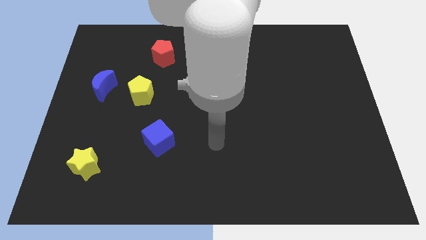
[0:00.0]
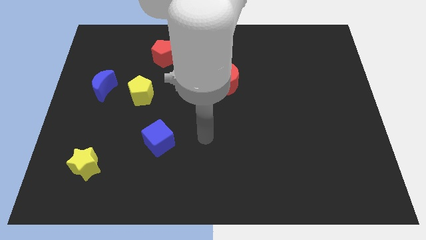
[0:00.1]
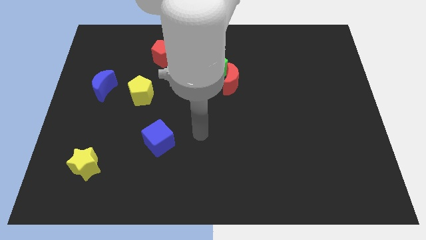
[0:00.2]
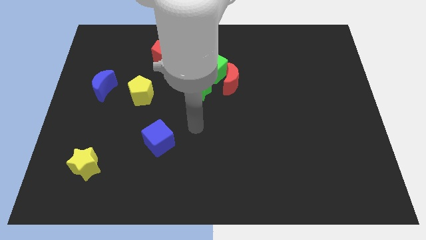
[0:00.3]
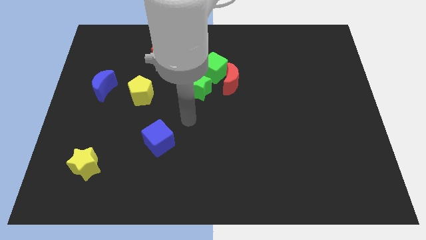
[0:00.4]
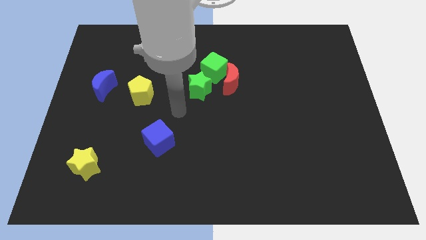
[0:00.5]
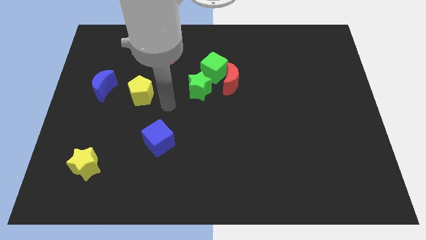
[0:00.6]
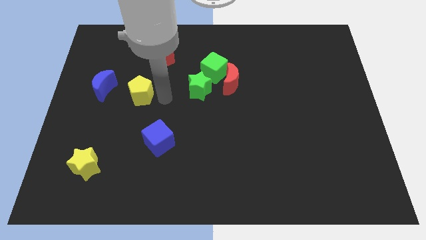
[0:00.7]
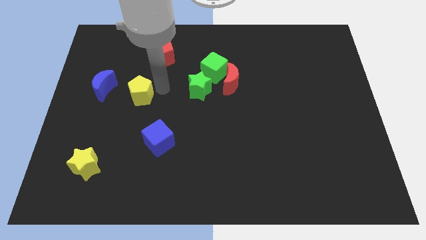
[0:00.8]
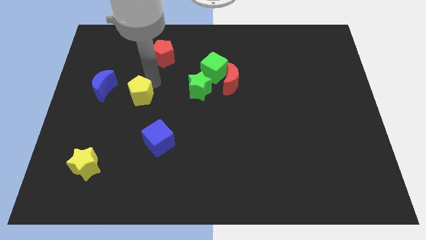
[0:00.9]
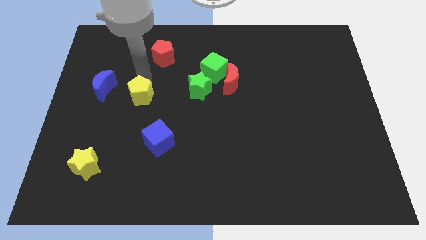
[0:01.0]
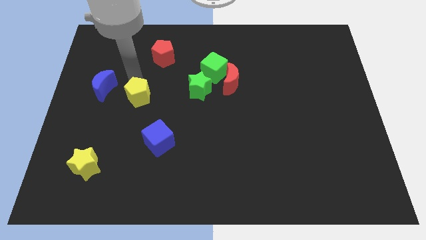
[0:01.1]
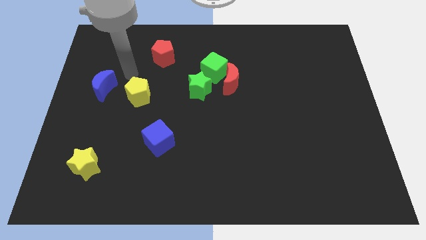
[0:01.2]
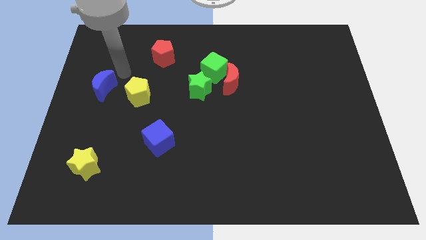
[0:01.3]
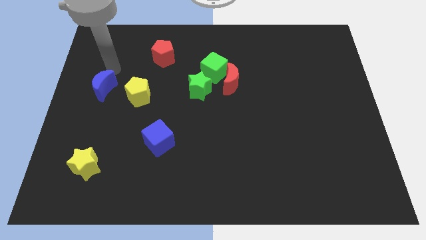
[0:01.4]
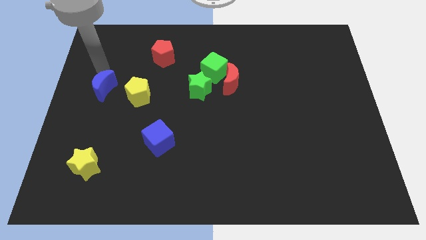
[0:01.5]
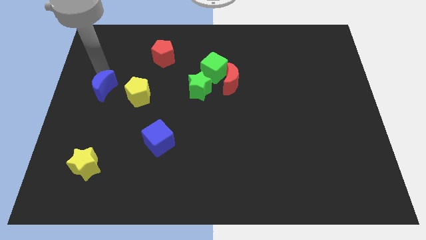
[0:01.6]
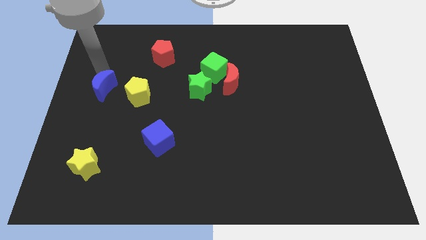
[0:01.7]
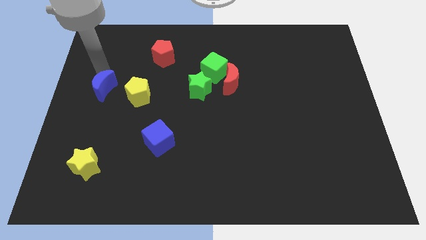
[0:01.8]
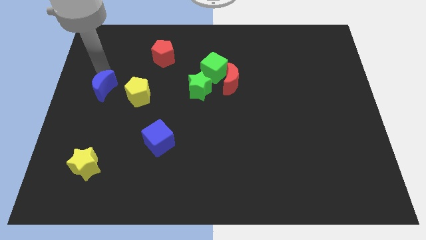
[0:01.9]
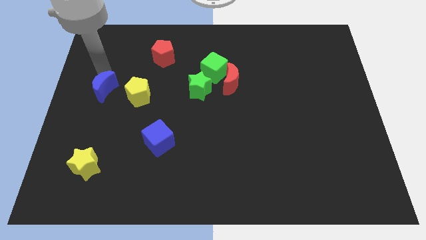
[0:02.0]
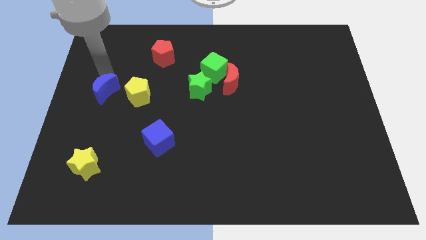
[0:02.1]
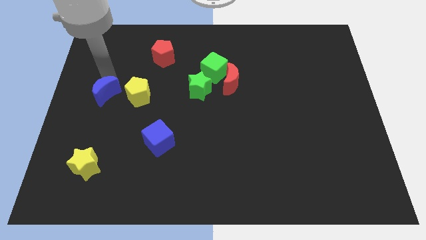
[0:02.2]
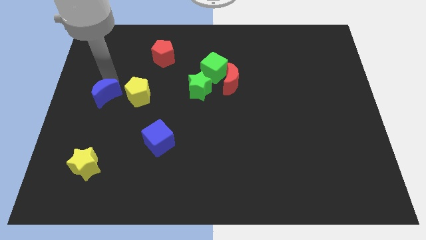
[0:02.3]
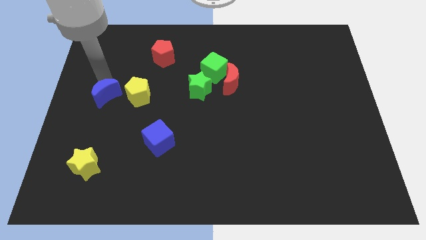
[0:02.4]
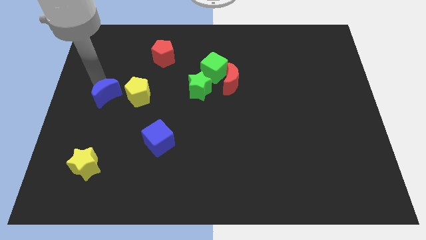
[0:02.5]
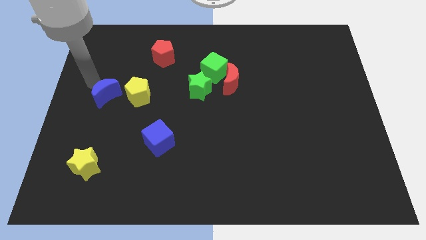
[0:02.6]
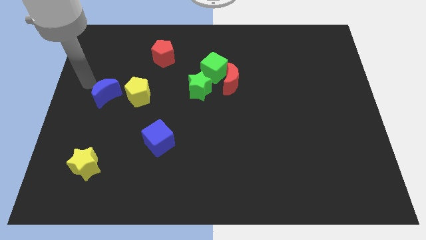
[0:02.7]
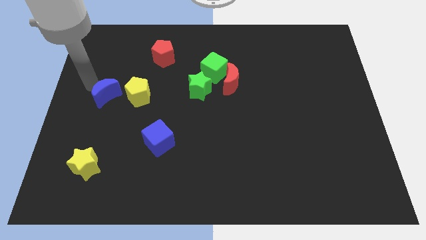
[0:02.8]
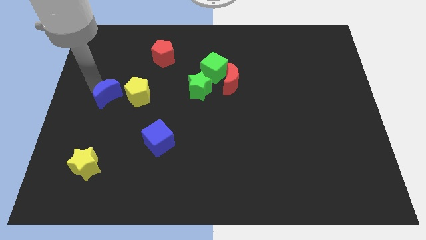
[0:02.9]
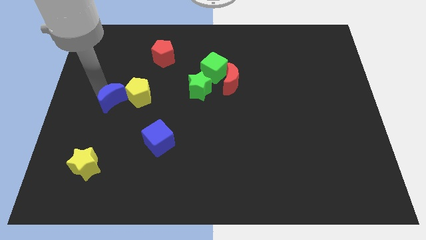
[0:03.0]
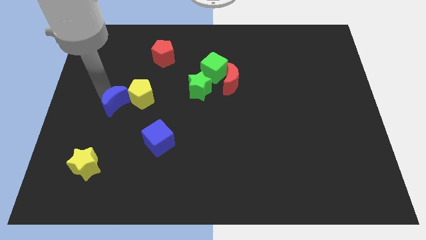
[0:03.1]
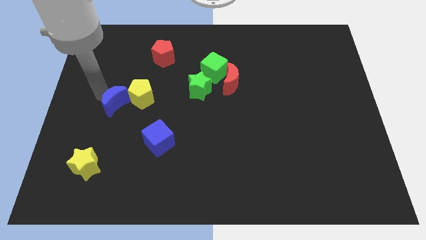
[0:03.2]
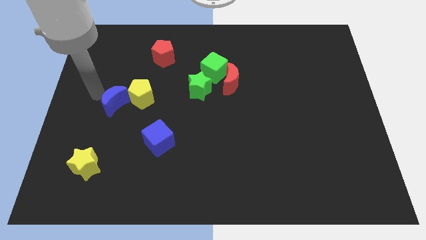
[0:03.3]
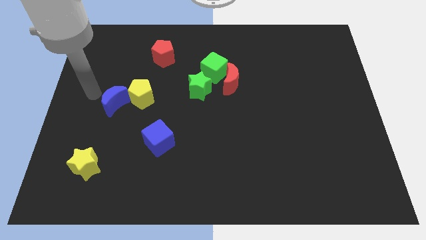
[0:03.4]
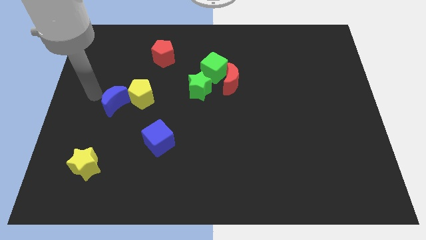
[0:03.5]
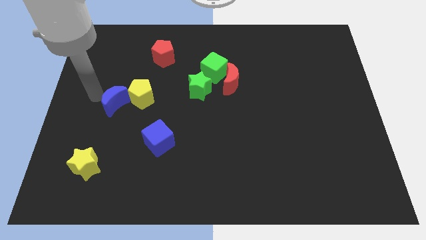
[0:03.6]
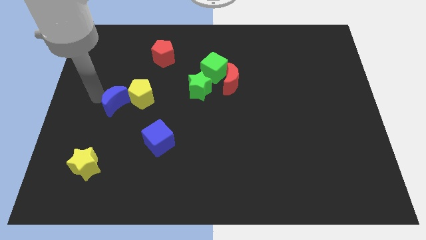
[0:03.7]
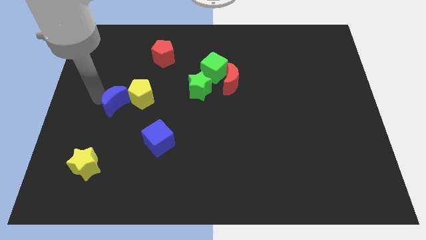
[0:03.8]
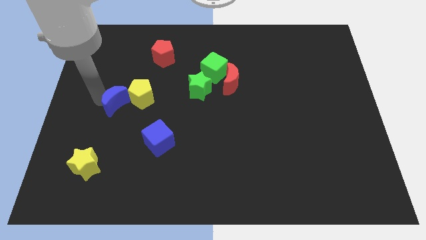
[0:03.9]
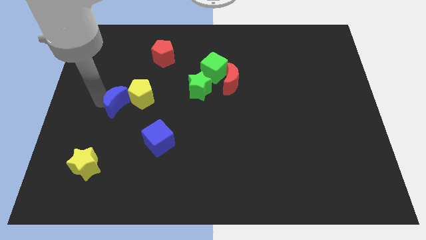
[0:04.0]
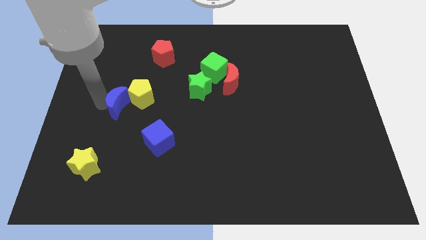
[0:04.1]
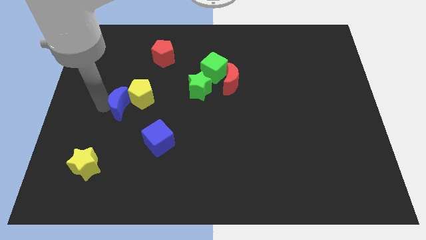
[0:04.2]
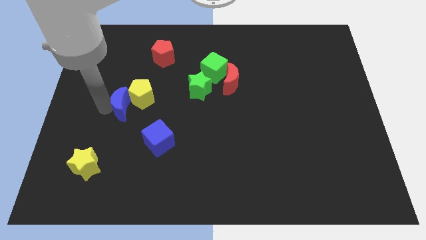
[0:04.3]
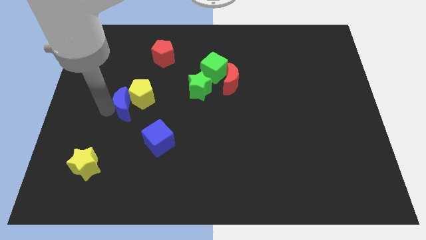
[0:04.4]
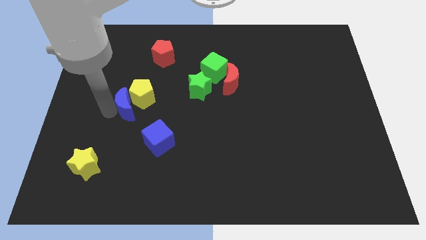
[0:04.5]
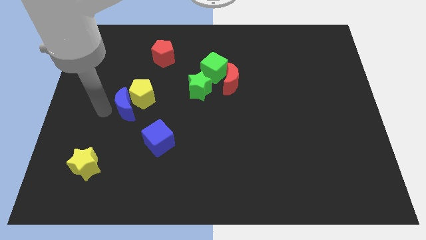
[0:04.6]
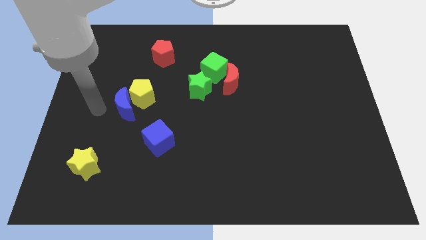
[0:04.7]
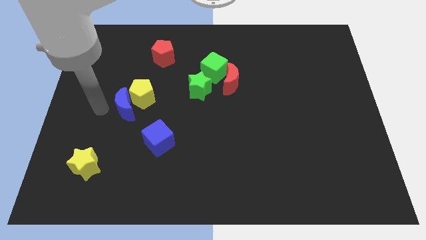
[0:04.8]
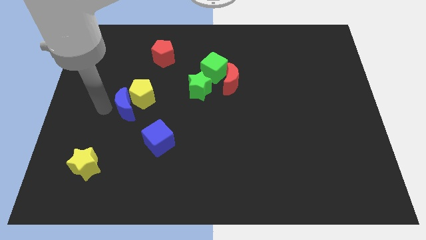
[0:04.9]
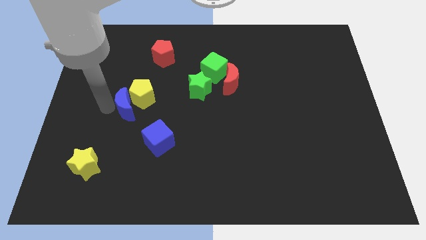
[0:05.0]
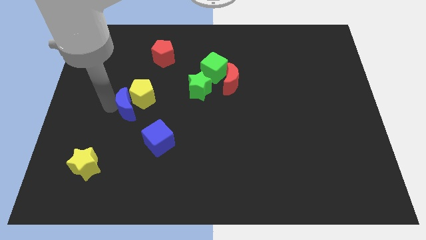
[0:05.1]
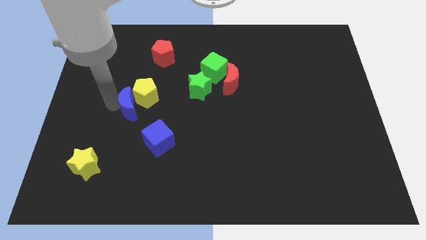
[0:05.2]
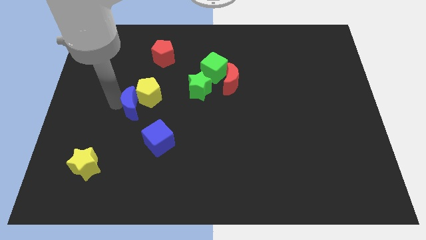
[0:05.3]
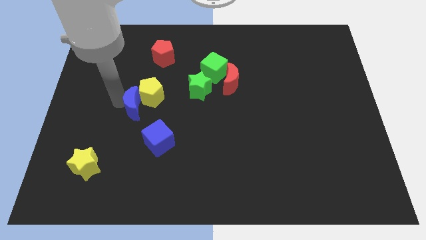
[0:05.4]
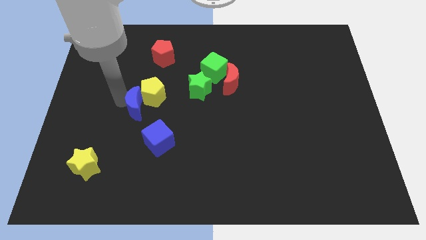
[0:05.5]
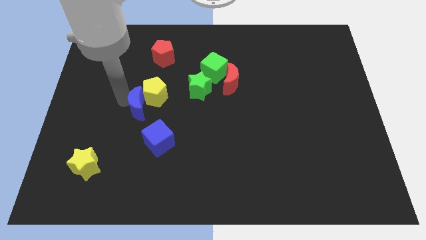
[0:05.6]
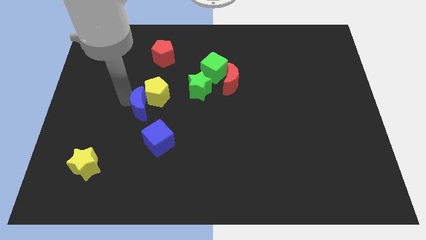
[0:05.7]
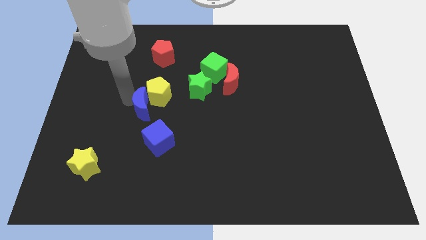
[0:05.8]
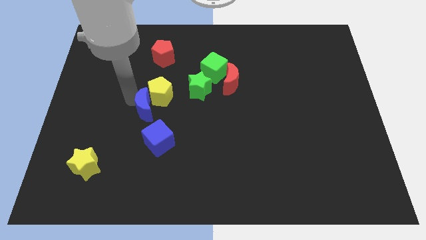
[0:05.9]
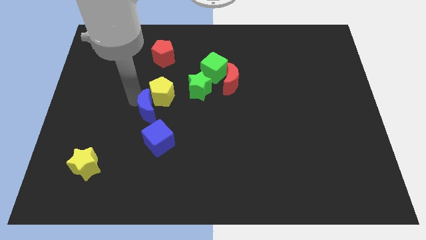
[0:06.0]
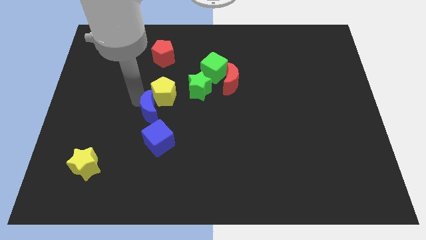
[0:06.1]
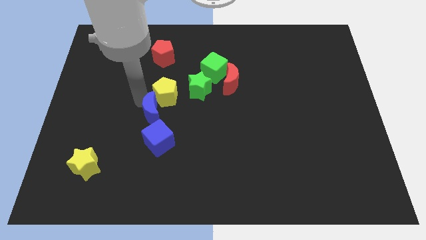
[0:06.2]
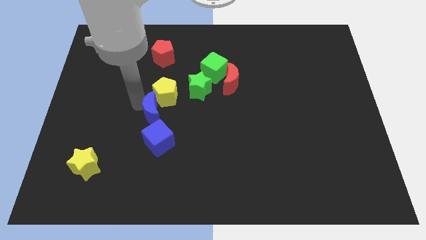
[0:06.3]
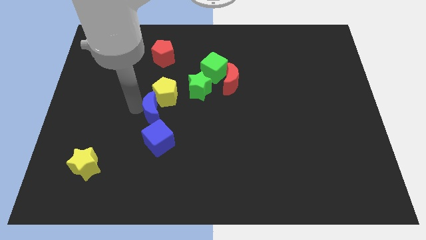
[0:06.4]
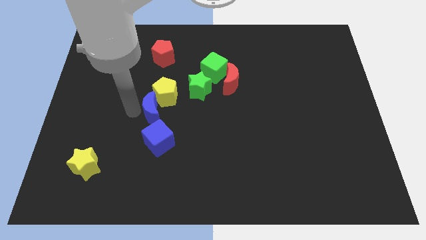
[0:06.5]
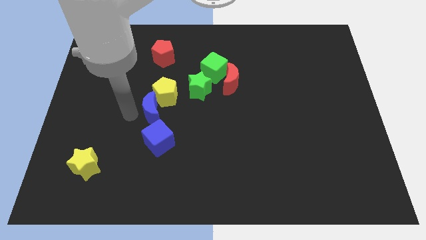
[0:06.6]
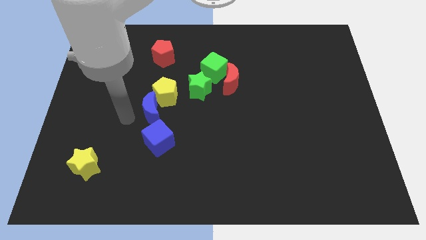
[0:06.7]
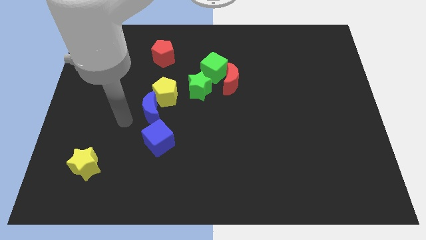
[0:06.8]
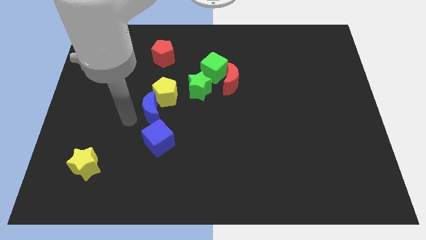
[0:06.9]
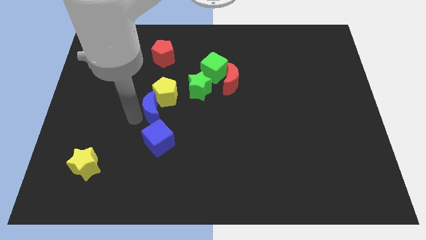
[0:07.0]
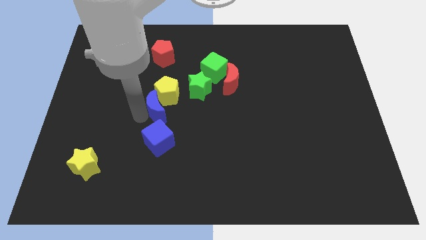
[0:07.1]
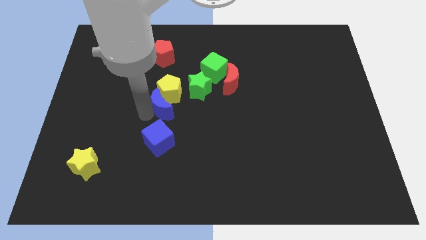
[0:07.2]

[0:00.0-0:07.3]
push the blue moon to the center of the board
